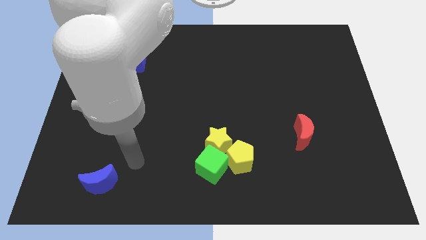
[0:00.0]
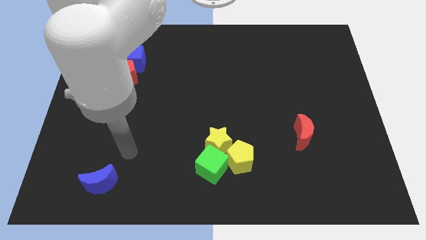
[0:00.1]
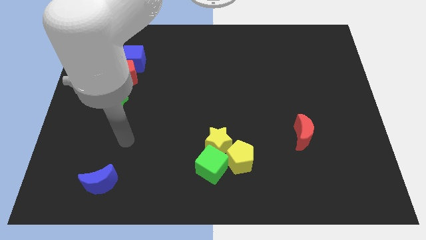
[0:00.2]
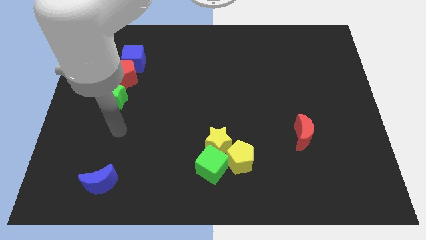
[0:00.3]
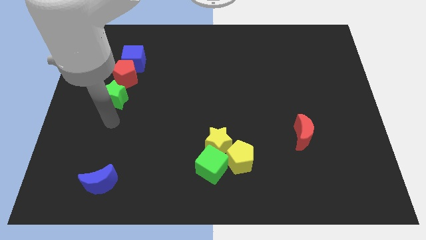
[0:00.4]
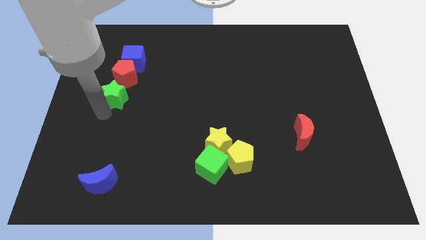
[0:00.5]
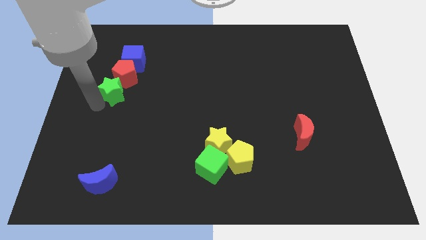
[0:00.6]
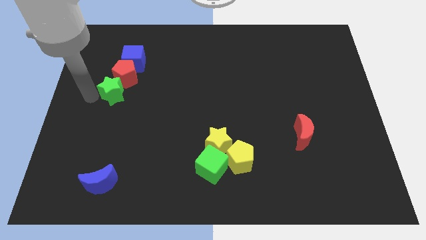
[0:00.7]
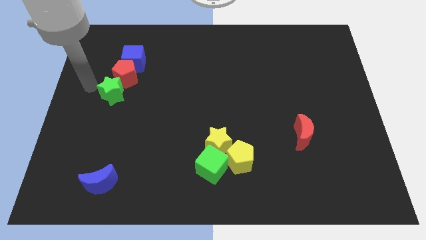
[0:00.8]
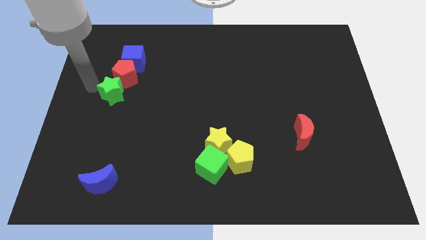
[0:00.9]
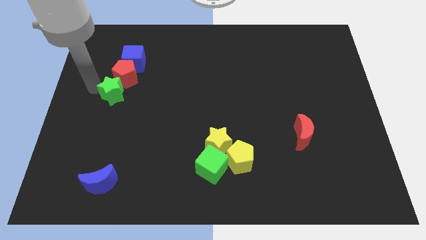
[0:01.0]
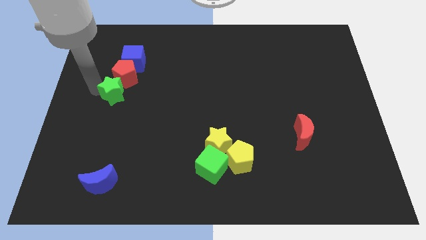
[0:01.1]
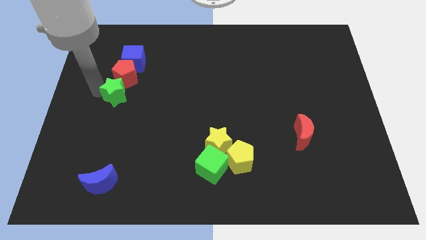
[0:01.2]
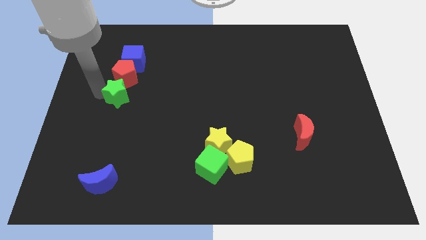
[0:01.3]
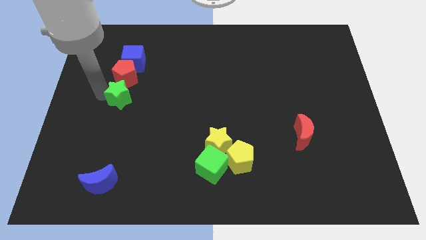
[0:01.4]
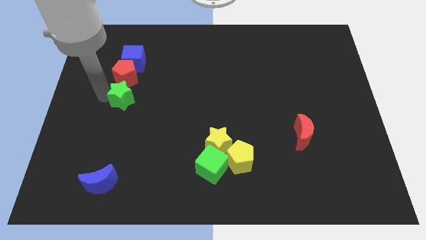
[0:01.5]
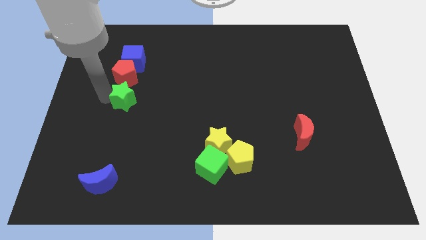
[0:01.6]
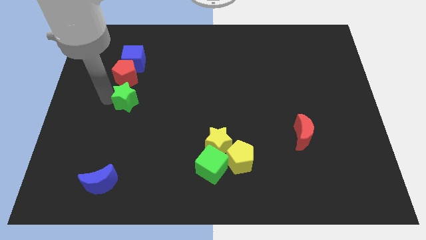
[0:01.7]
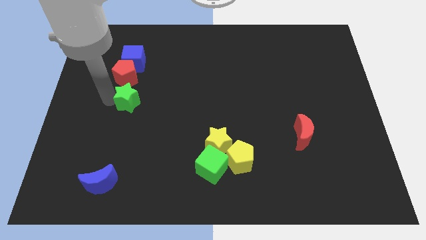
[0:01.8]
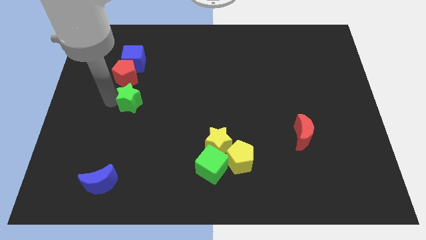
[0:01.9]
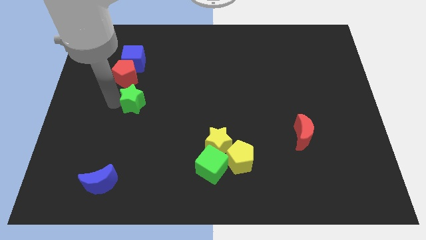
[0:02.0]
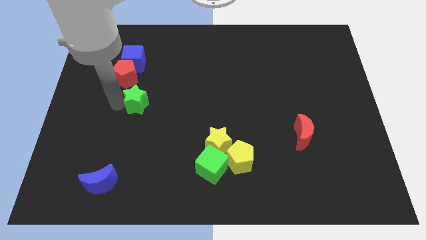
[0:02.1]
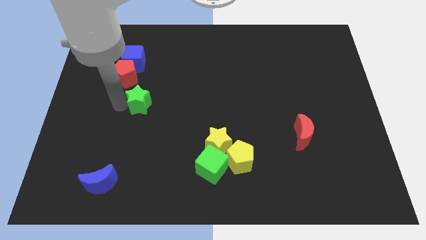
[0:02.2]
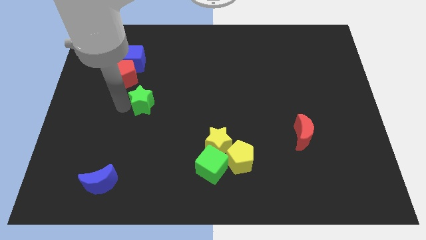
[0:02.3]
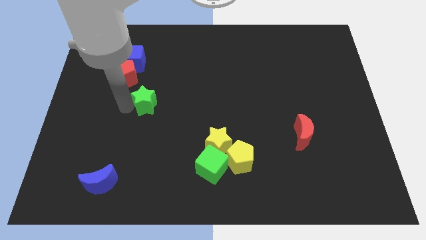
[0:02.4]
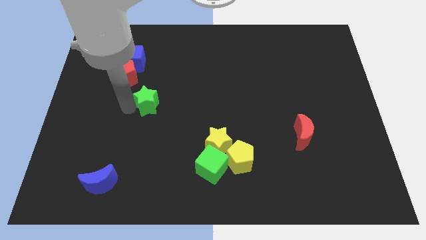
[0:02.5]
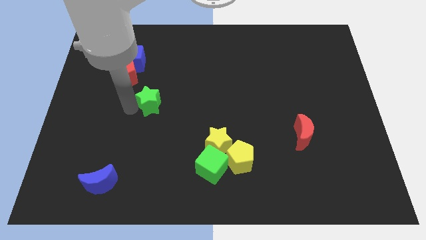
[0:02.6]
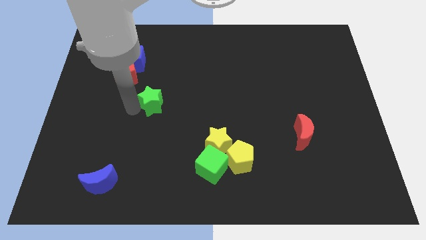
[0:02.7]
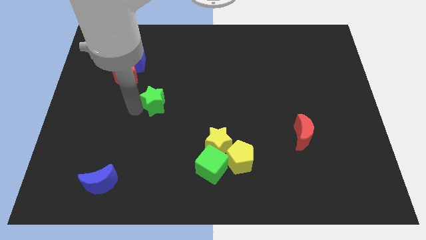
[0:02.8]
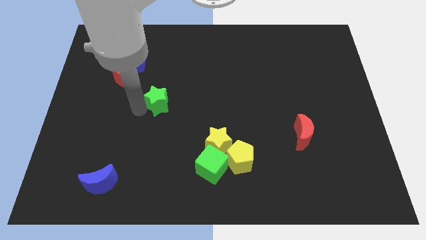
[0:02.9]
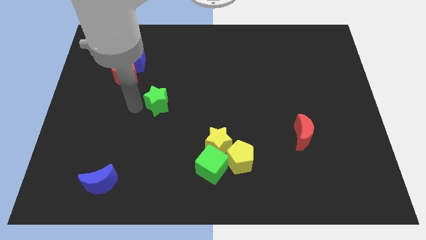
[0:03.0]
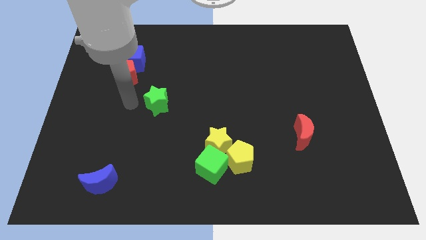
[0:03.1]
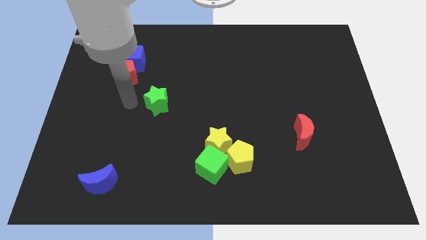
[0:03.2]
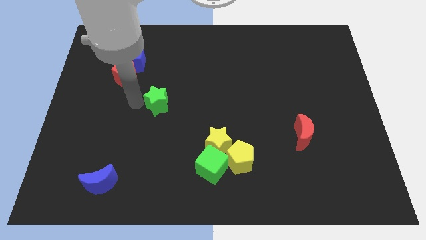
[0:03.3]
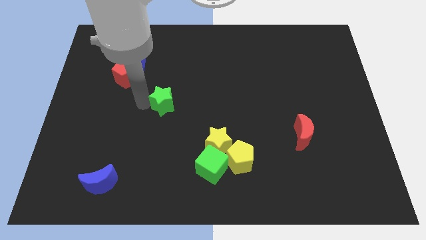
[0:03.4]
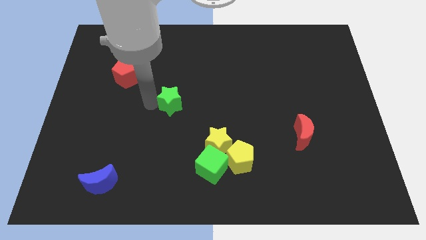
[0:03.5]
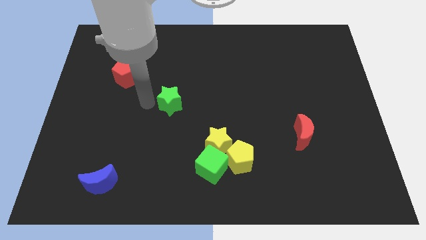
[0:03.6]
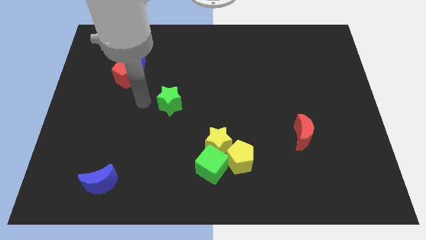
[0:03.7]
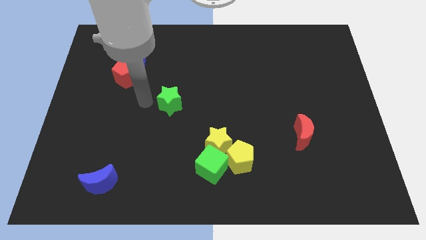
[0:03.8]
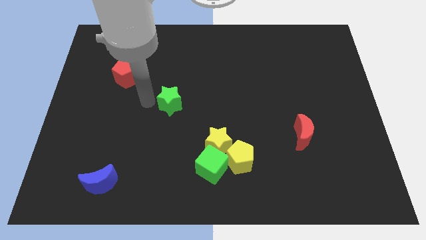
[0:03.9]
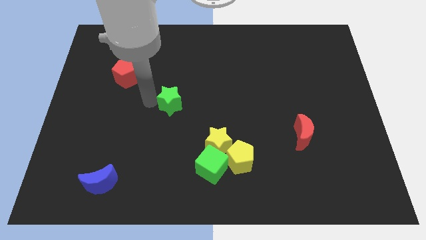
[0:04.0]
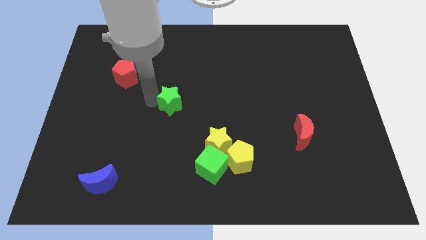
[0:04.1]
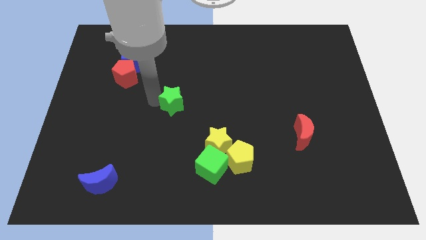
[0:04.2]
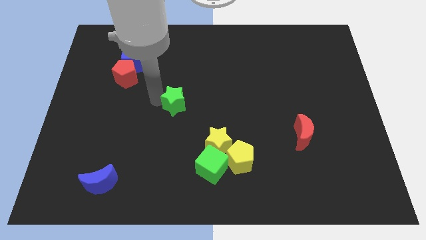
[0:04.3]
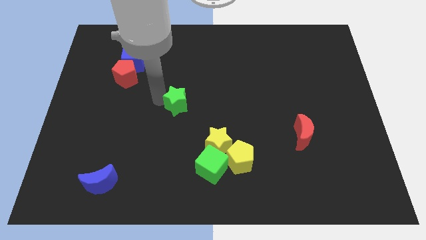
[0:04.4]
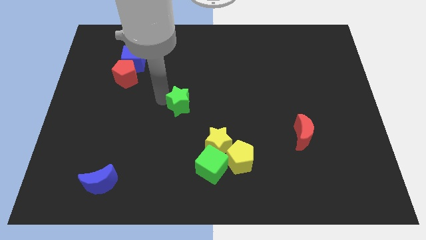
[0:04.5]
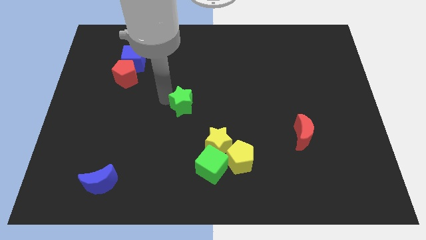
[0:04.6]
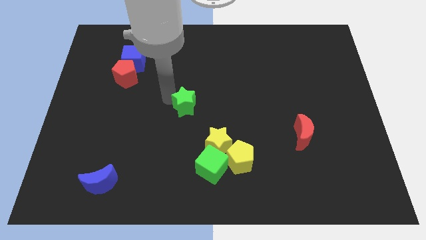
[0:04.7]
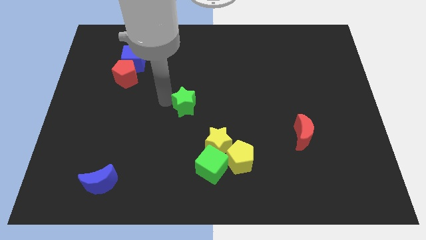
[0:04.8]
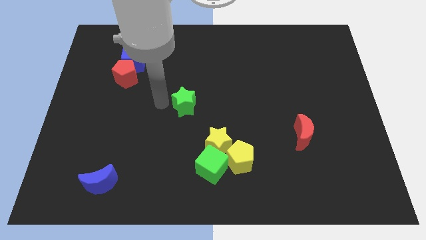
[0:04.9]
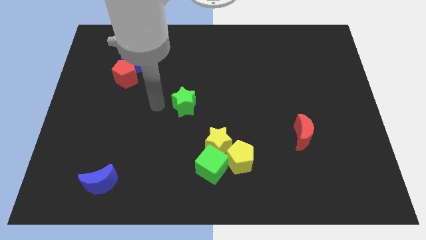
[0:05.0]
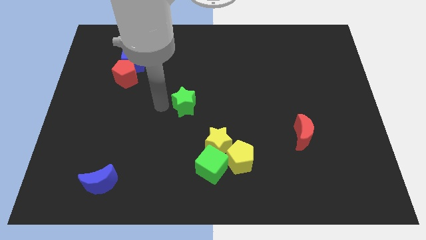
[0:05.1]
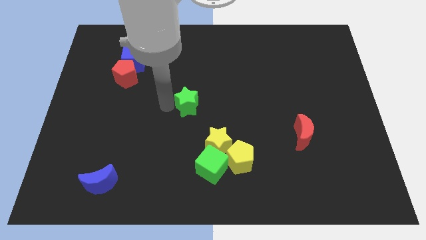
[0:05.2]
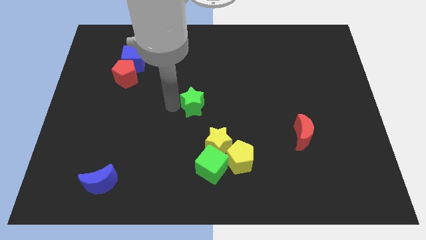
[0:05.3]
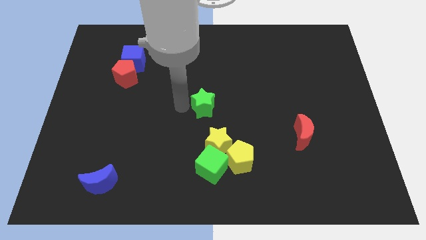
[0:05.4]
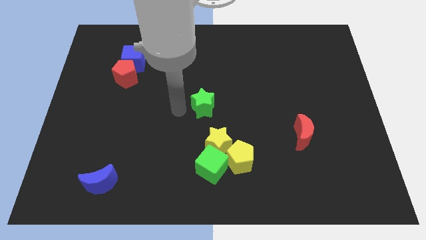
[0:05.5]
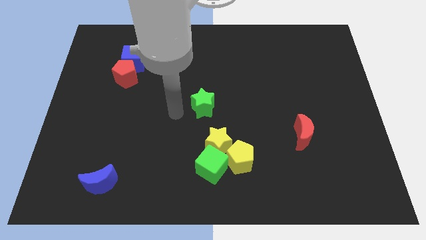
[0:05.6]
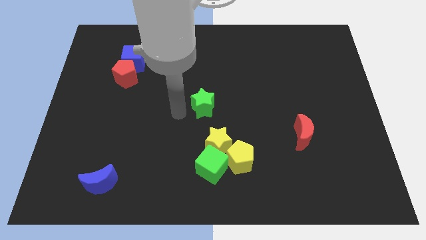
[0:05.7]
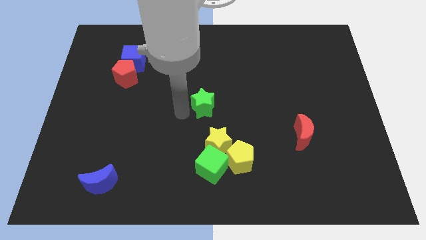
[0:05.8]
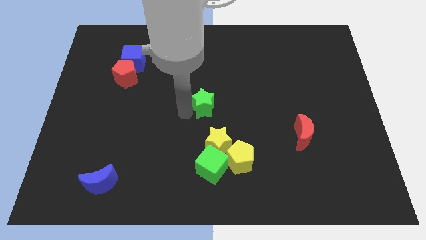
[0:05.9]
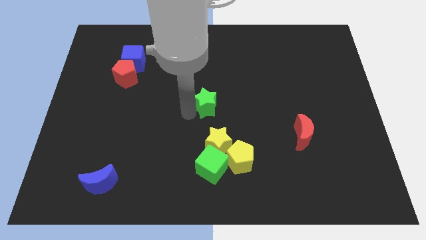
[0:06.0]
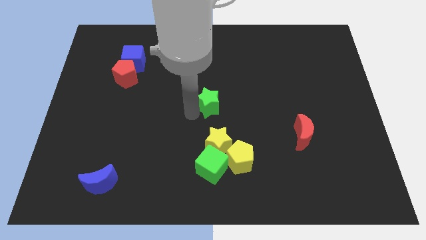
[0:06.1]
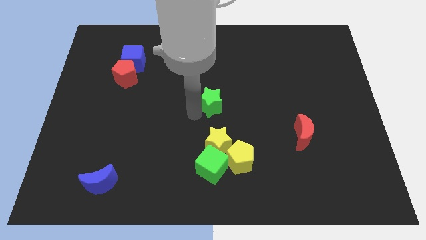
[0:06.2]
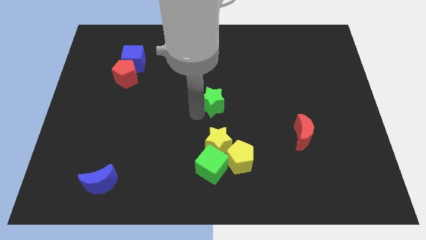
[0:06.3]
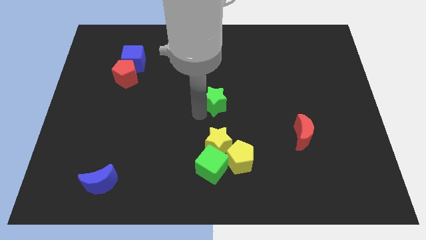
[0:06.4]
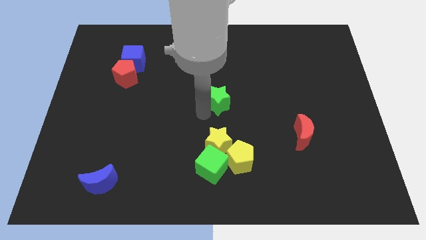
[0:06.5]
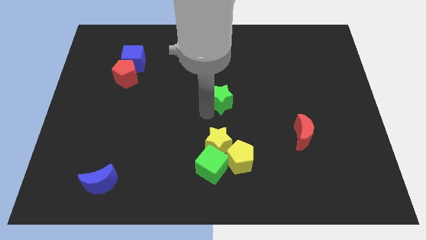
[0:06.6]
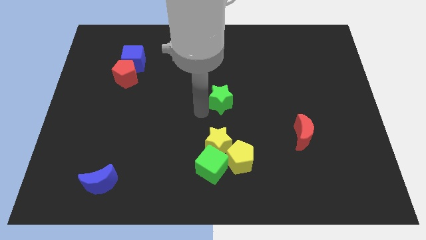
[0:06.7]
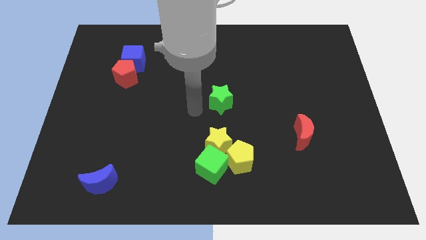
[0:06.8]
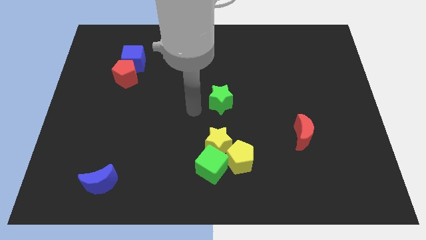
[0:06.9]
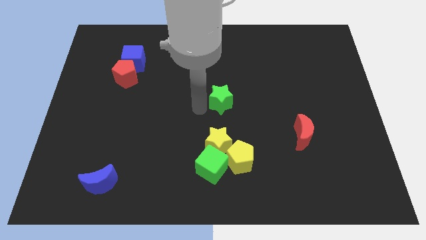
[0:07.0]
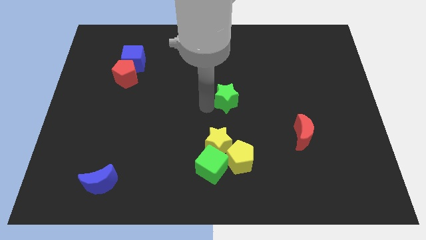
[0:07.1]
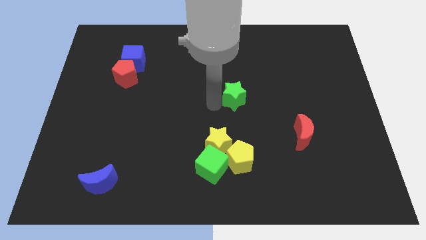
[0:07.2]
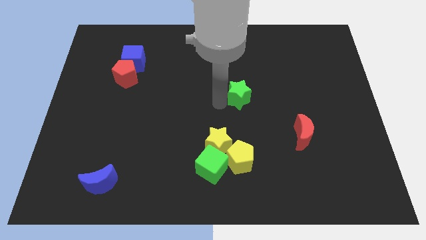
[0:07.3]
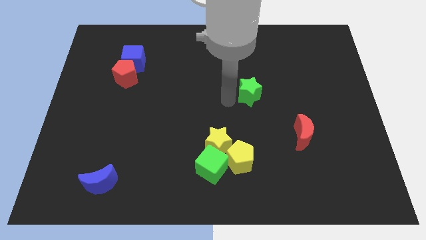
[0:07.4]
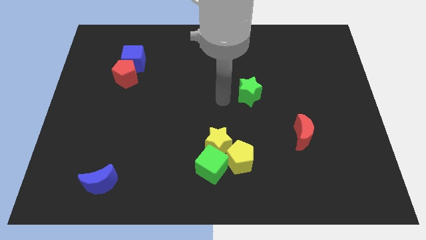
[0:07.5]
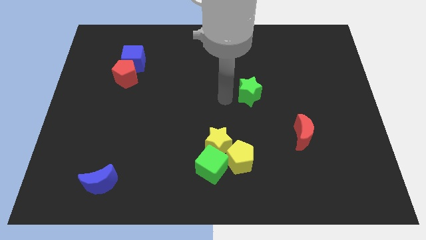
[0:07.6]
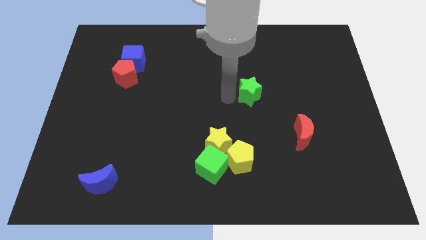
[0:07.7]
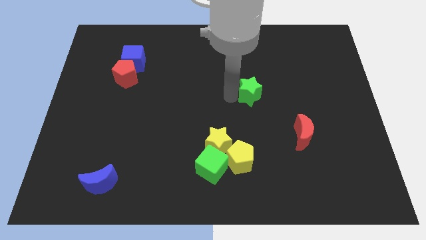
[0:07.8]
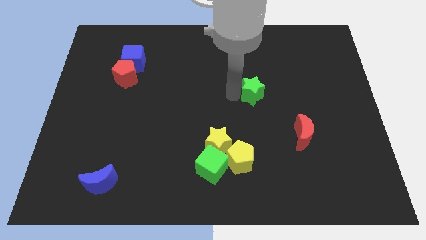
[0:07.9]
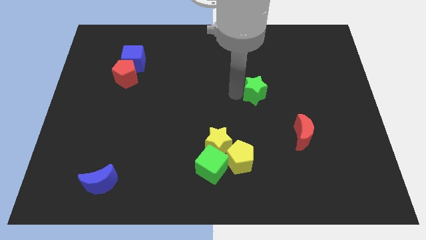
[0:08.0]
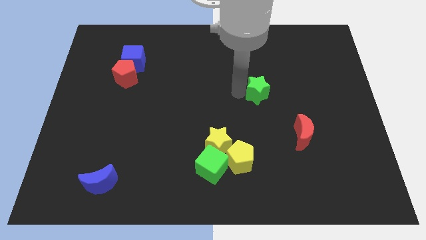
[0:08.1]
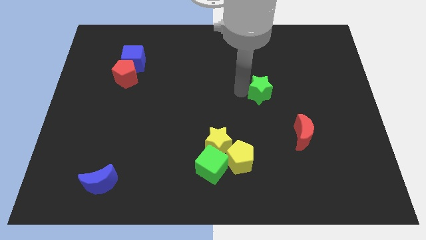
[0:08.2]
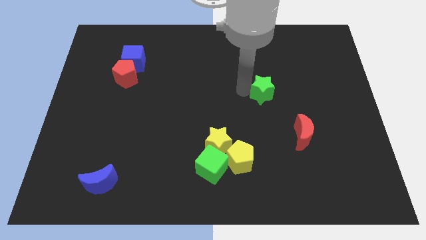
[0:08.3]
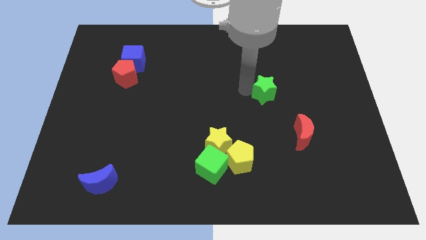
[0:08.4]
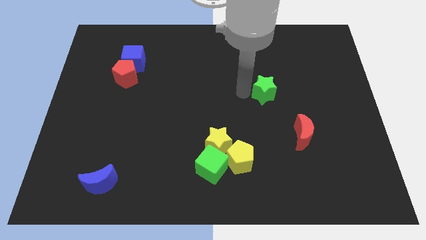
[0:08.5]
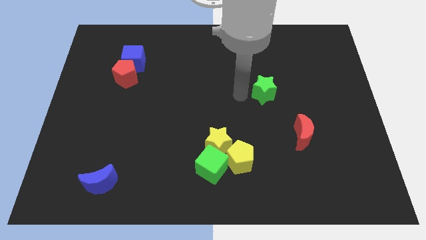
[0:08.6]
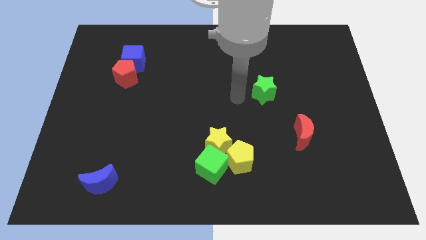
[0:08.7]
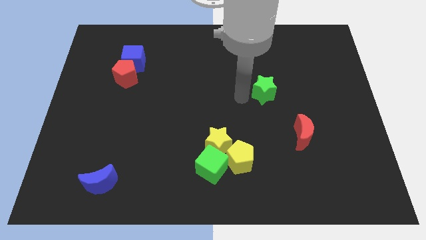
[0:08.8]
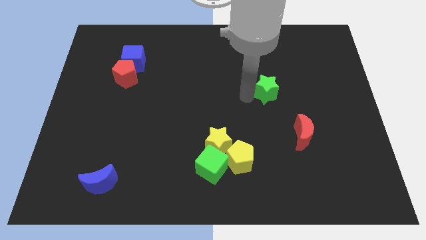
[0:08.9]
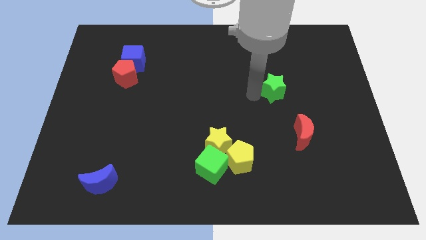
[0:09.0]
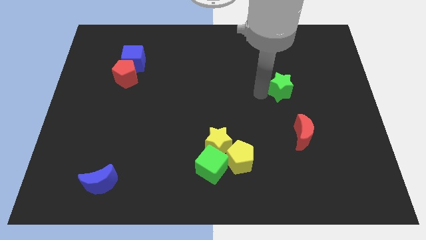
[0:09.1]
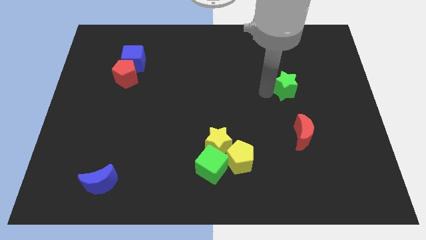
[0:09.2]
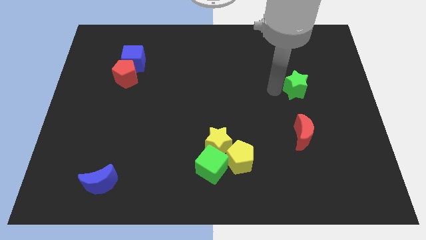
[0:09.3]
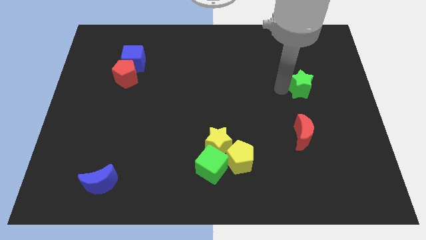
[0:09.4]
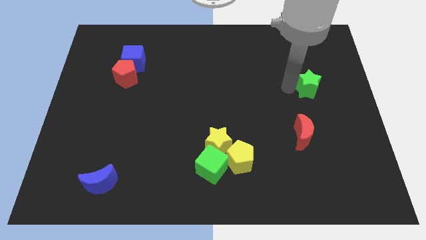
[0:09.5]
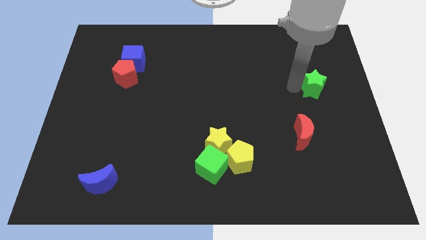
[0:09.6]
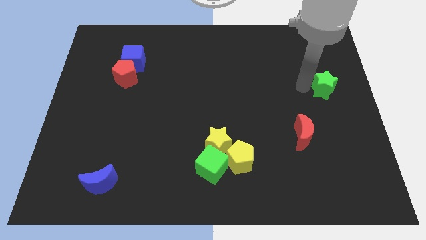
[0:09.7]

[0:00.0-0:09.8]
move the green star to the center right
